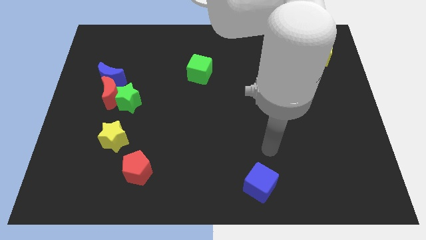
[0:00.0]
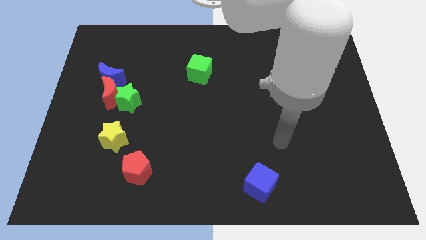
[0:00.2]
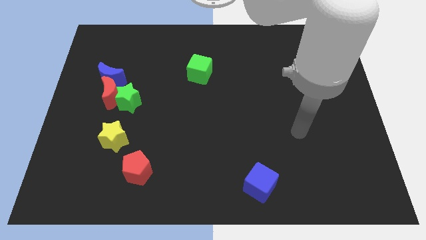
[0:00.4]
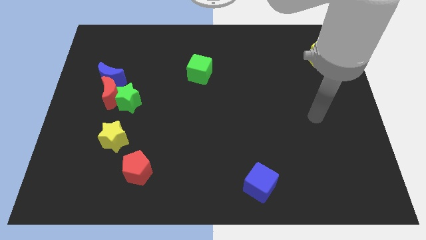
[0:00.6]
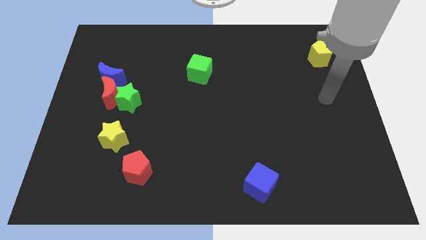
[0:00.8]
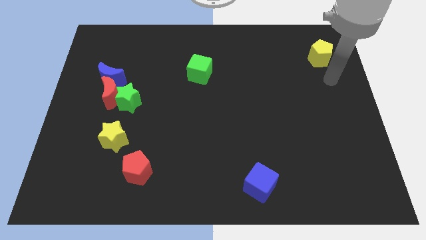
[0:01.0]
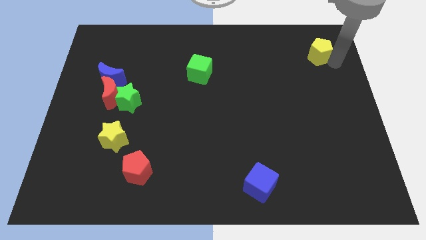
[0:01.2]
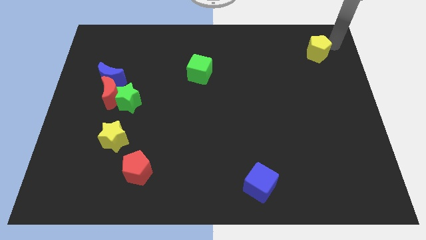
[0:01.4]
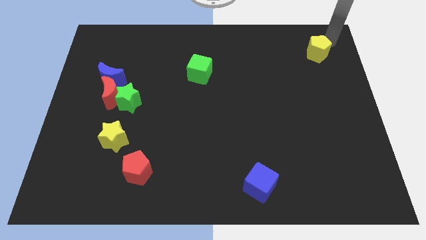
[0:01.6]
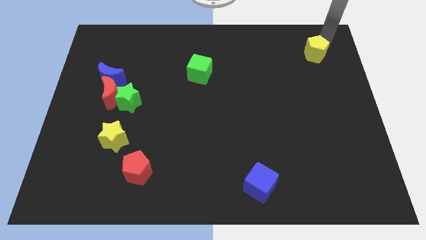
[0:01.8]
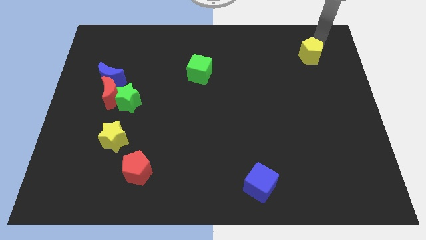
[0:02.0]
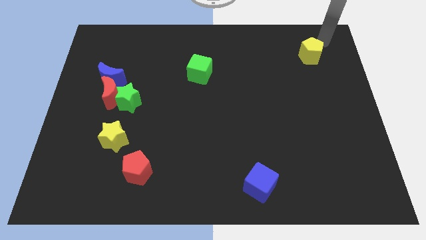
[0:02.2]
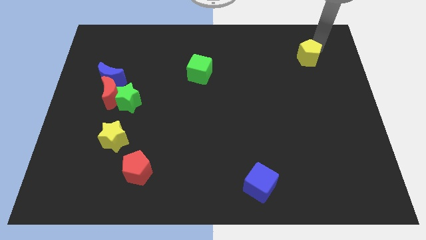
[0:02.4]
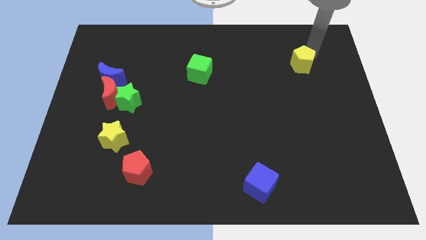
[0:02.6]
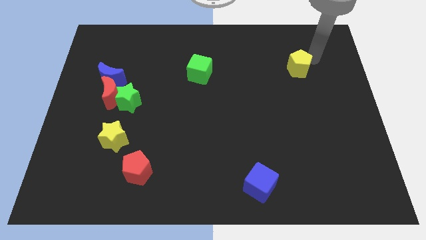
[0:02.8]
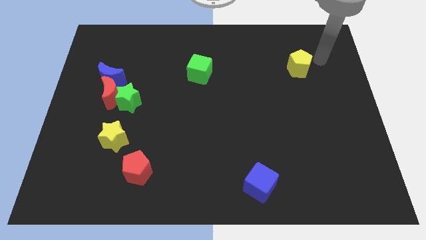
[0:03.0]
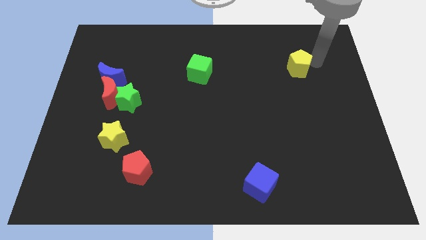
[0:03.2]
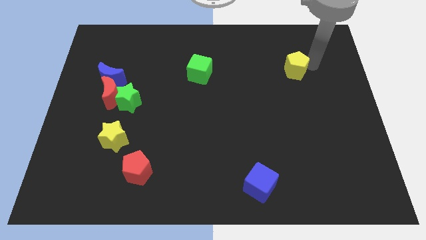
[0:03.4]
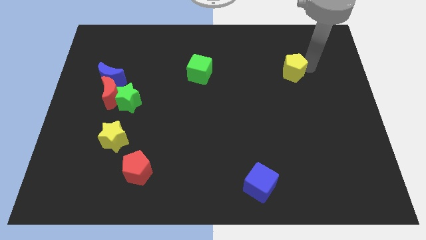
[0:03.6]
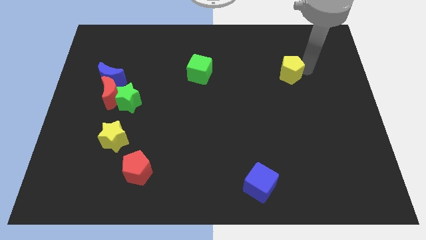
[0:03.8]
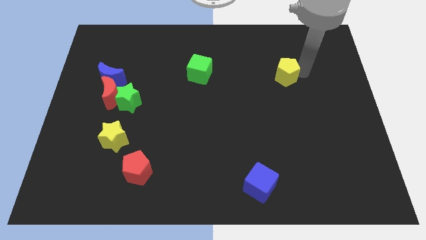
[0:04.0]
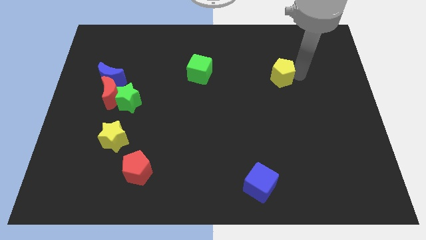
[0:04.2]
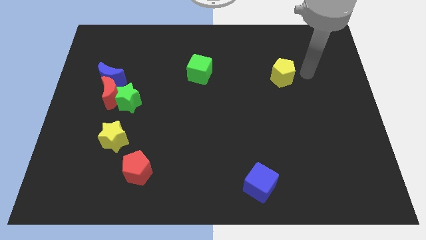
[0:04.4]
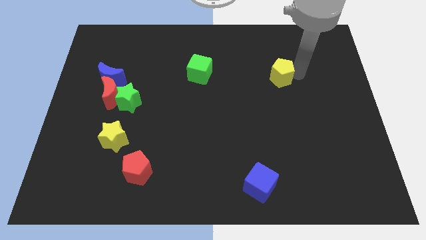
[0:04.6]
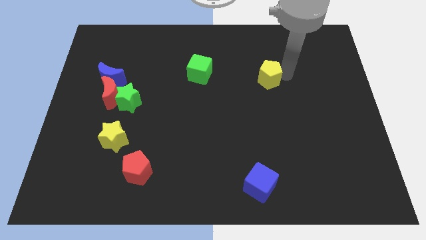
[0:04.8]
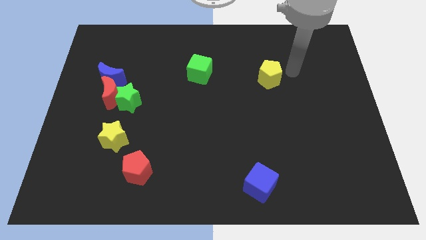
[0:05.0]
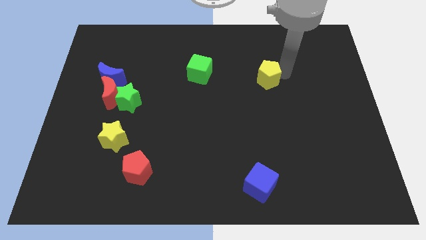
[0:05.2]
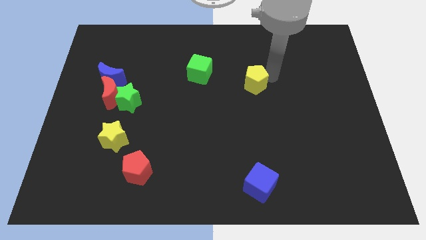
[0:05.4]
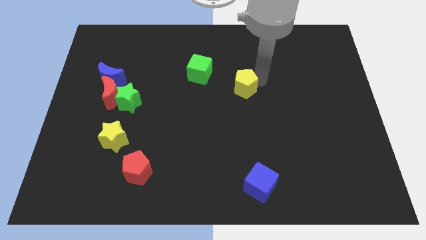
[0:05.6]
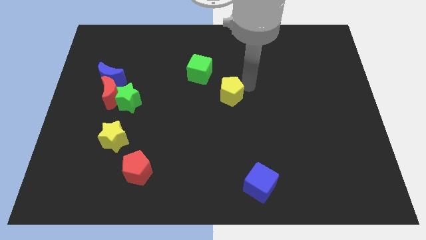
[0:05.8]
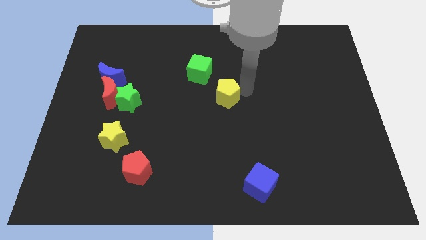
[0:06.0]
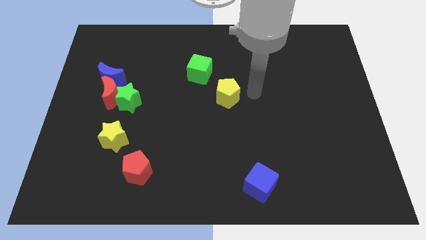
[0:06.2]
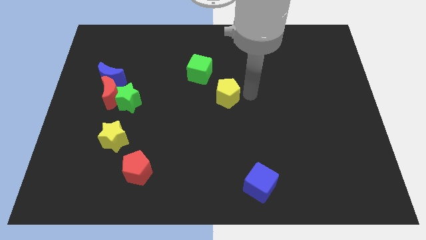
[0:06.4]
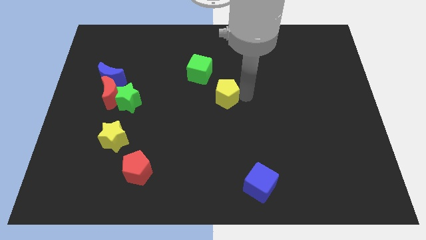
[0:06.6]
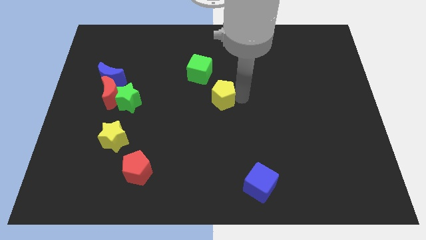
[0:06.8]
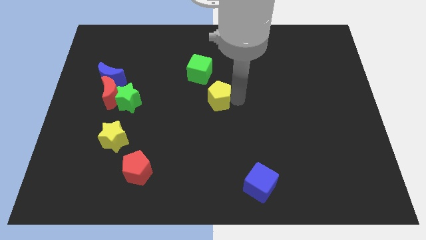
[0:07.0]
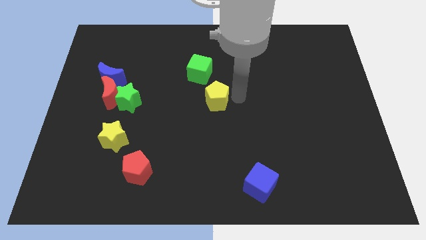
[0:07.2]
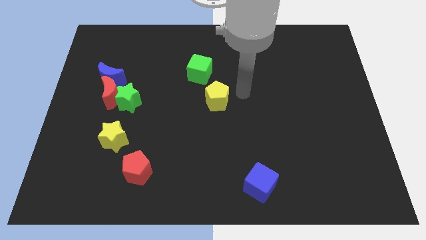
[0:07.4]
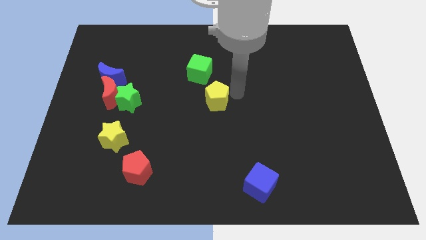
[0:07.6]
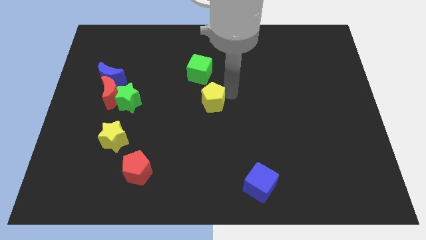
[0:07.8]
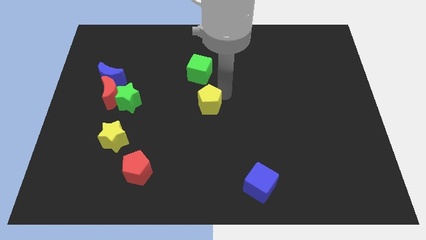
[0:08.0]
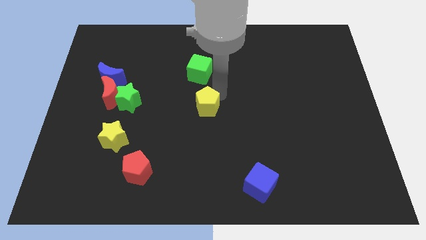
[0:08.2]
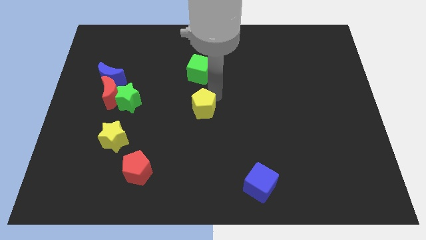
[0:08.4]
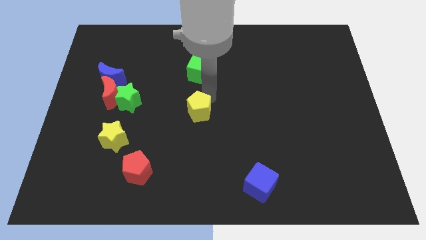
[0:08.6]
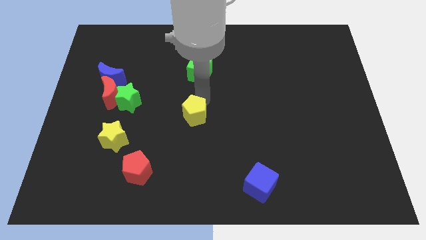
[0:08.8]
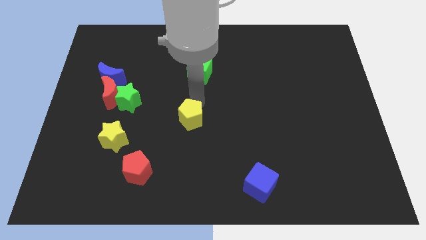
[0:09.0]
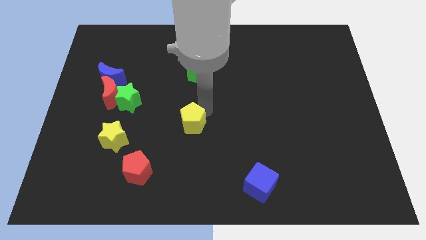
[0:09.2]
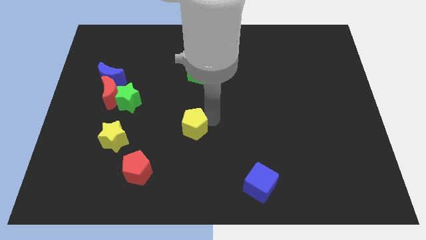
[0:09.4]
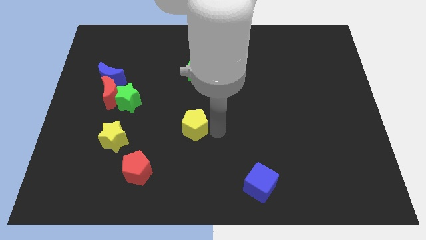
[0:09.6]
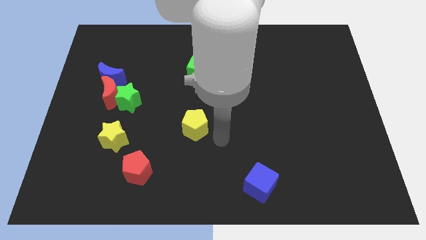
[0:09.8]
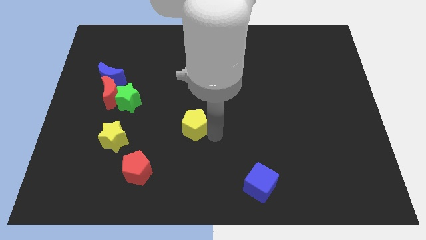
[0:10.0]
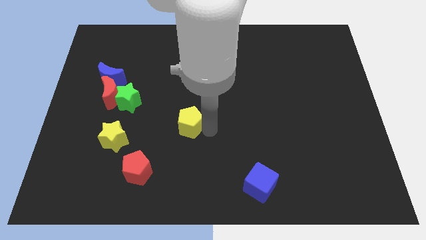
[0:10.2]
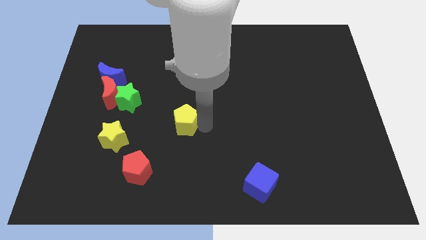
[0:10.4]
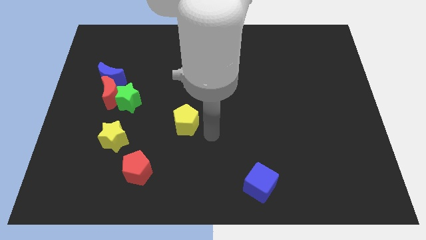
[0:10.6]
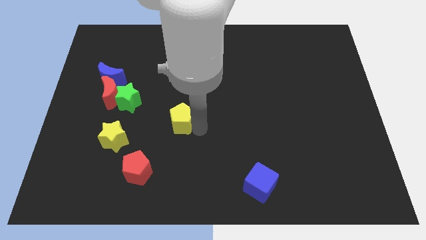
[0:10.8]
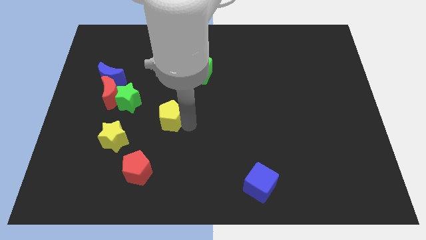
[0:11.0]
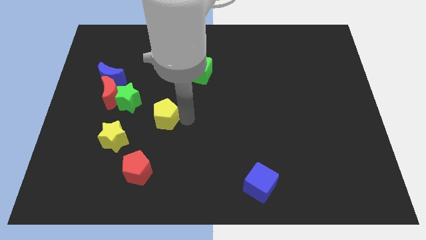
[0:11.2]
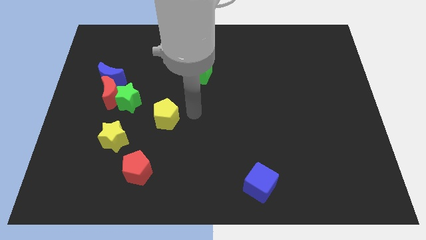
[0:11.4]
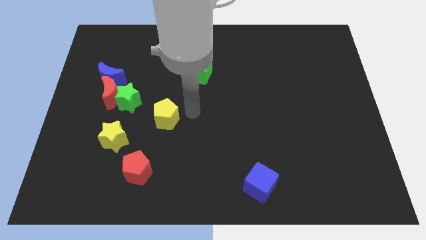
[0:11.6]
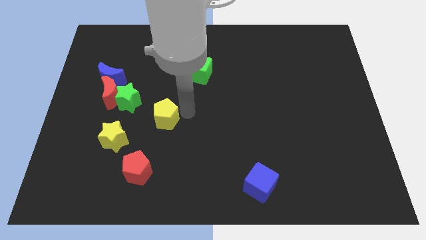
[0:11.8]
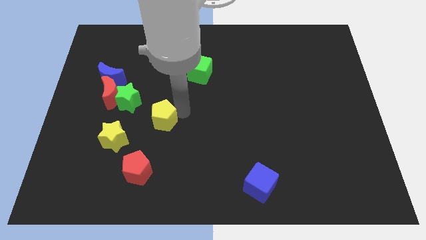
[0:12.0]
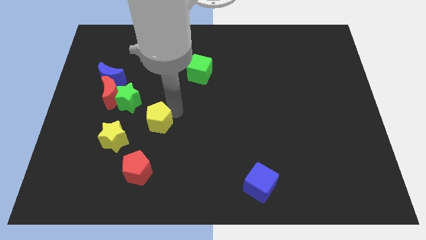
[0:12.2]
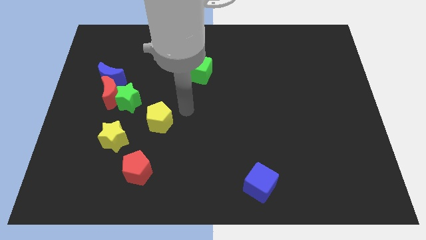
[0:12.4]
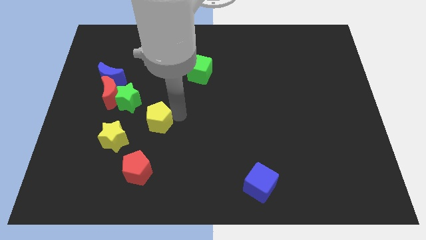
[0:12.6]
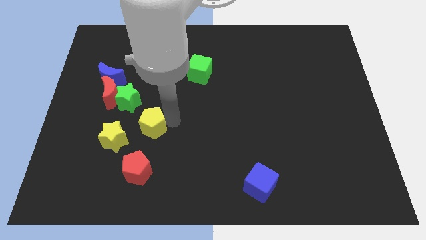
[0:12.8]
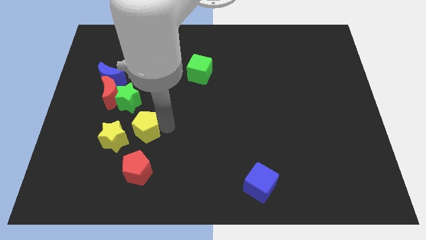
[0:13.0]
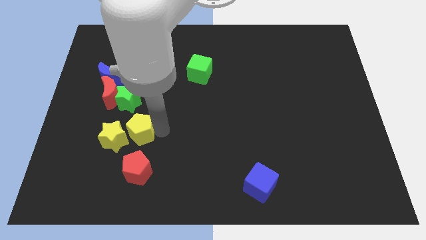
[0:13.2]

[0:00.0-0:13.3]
move the yellow pentagon next to the yellow star
